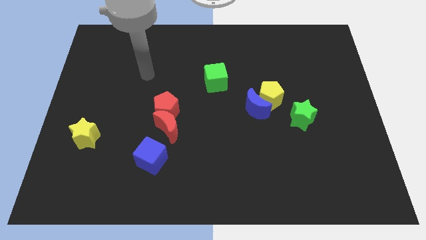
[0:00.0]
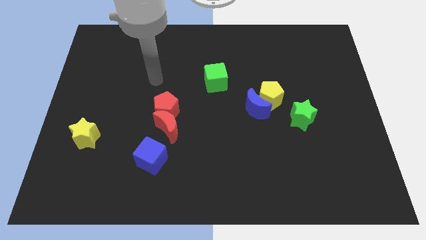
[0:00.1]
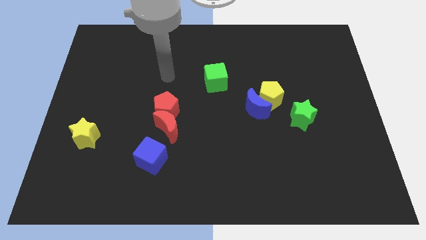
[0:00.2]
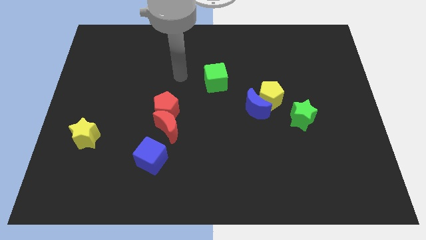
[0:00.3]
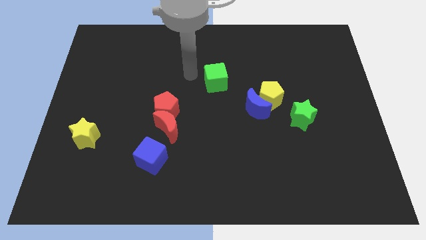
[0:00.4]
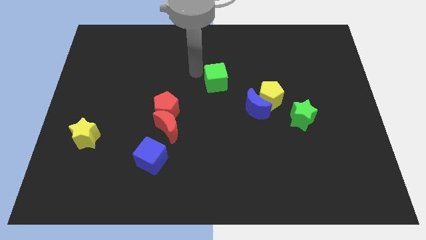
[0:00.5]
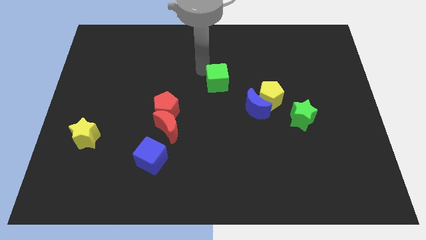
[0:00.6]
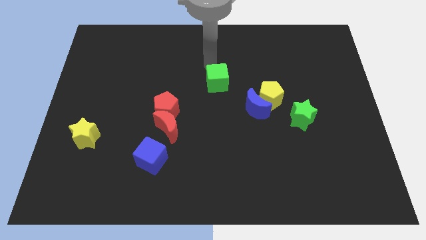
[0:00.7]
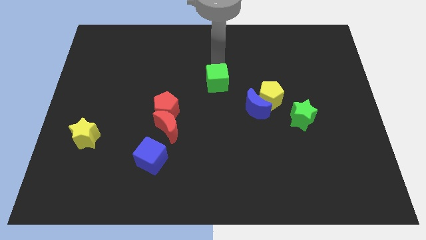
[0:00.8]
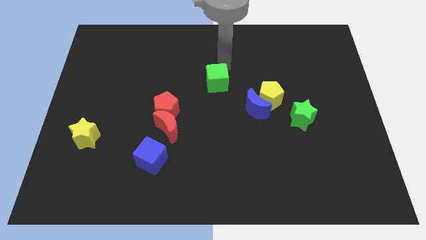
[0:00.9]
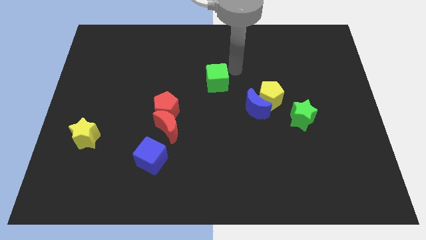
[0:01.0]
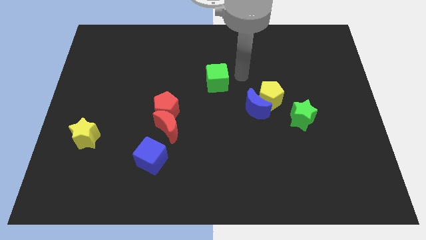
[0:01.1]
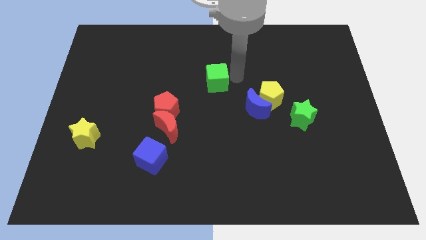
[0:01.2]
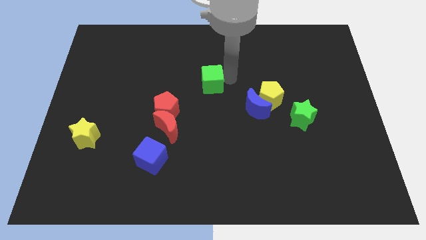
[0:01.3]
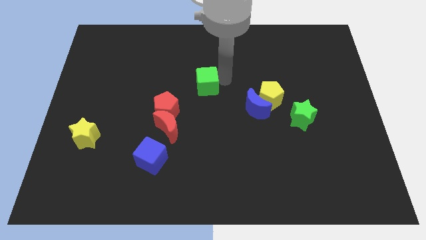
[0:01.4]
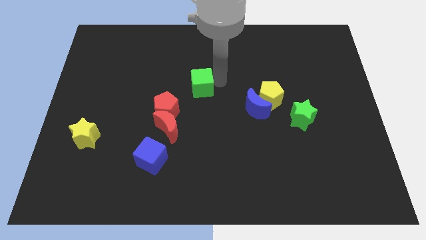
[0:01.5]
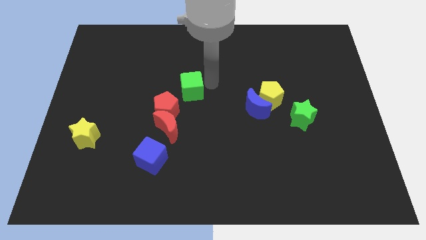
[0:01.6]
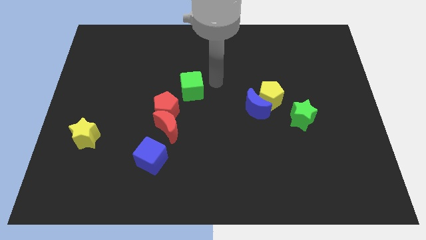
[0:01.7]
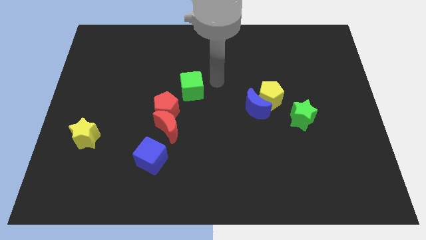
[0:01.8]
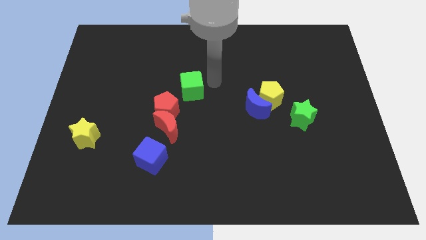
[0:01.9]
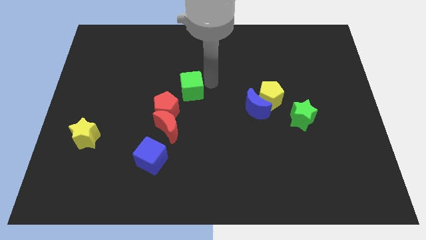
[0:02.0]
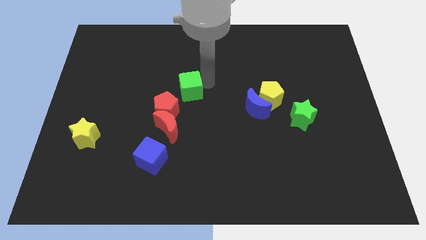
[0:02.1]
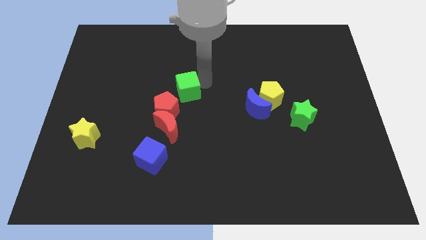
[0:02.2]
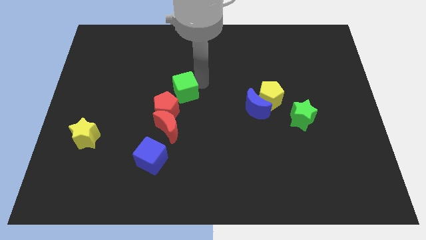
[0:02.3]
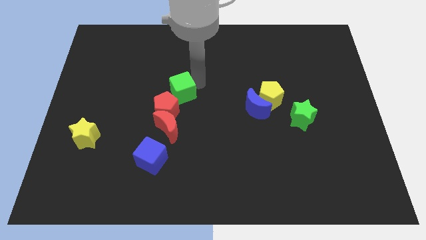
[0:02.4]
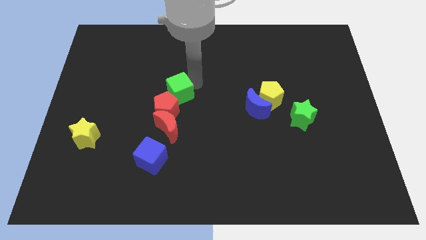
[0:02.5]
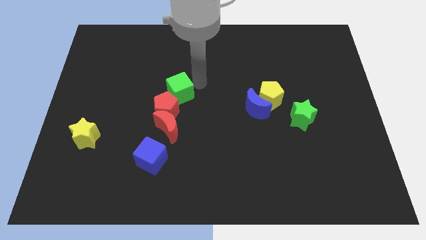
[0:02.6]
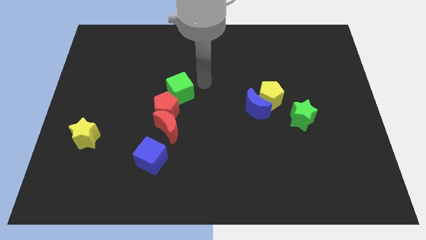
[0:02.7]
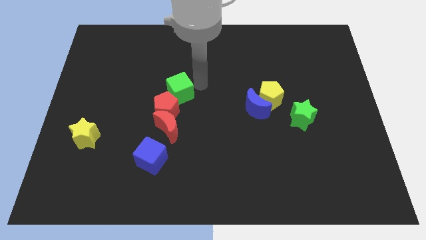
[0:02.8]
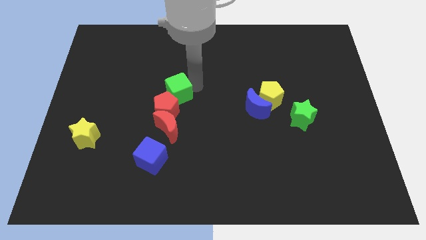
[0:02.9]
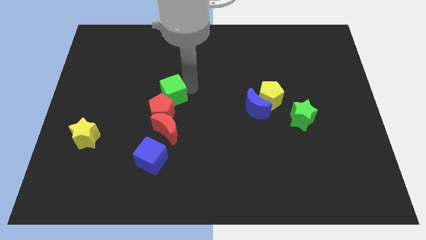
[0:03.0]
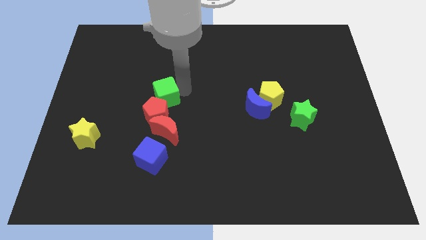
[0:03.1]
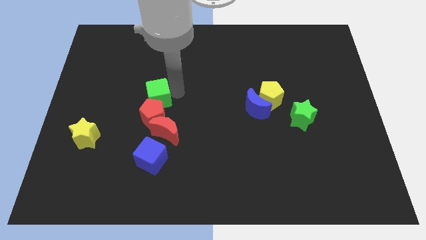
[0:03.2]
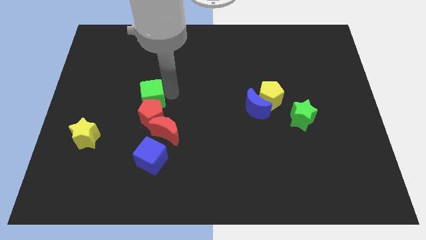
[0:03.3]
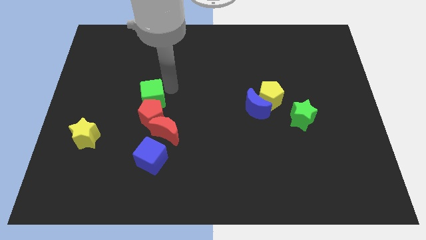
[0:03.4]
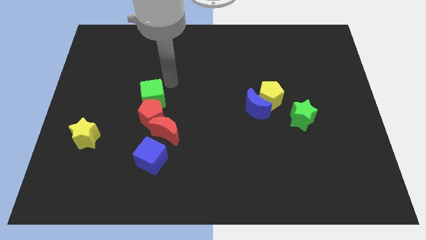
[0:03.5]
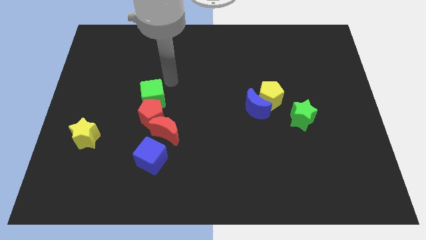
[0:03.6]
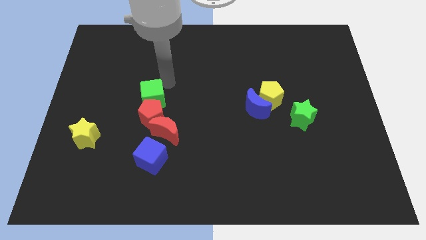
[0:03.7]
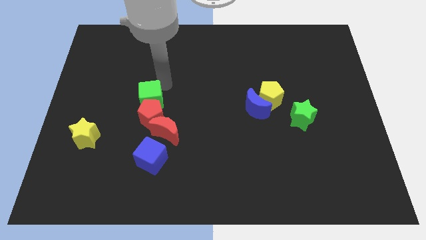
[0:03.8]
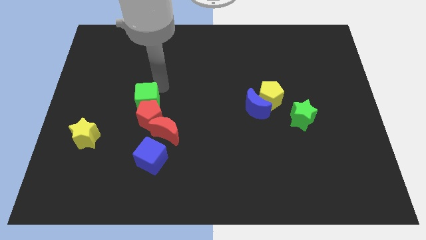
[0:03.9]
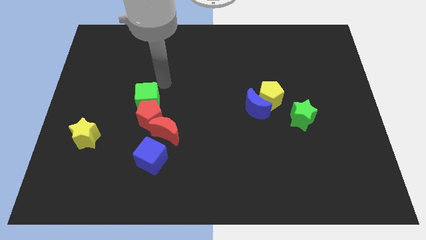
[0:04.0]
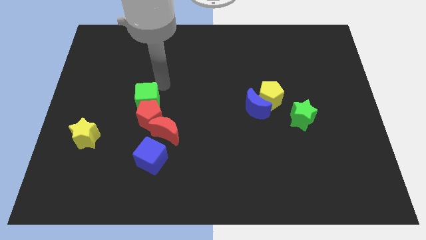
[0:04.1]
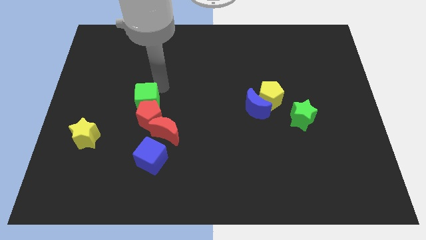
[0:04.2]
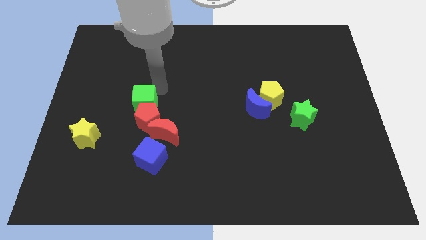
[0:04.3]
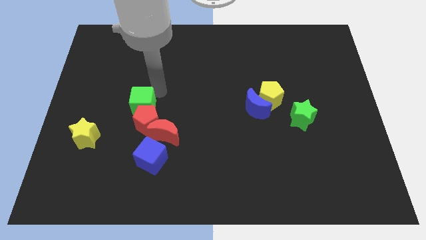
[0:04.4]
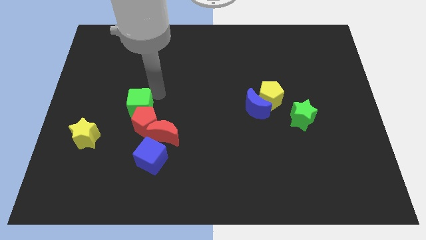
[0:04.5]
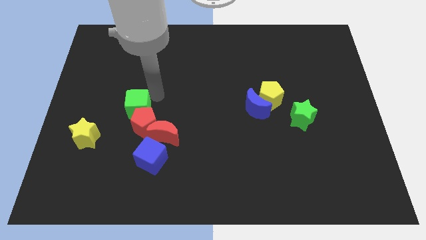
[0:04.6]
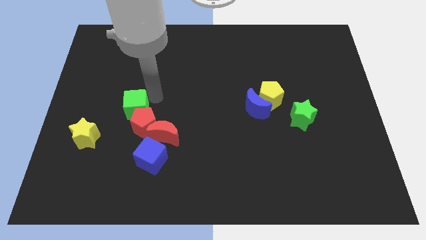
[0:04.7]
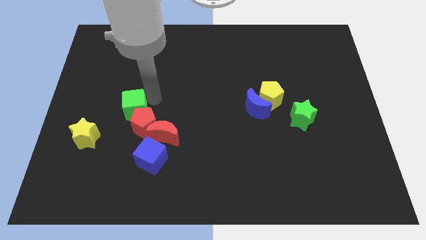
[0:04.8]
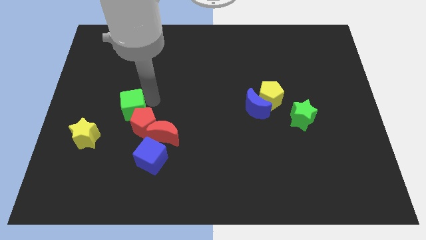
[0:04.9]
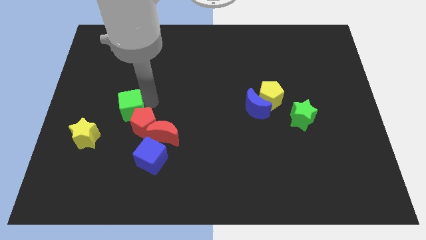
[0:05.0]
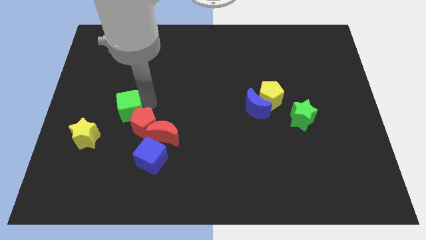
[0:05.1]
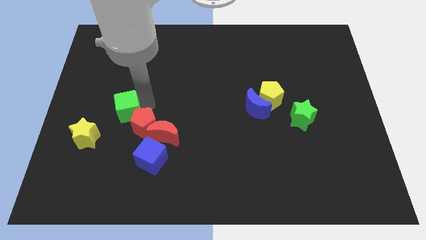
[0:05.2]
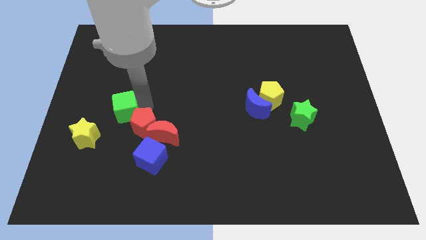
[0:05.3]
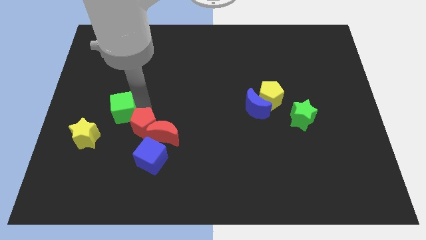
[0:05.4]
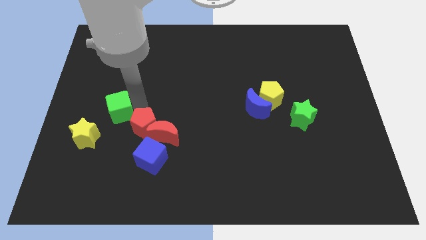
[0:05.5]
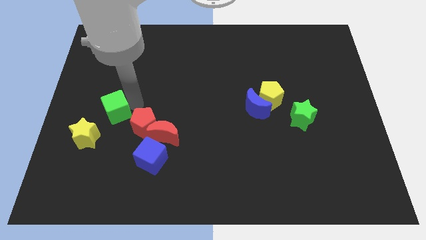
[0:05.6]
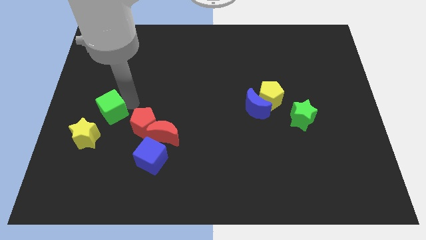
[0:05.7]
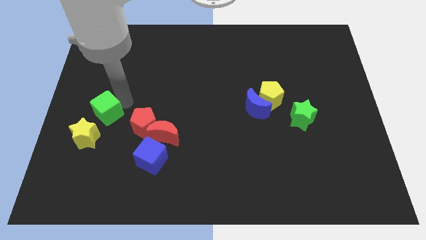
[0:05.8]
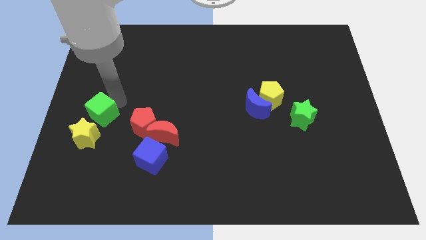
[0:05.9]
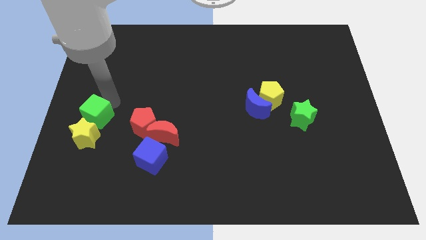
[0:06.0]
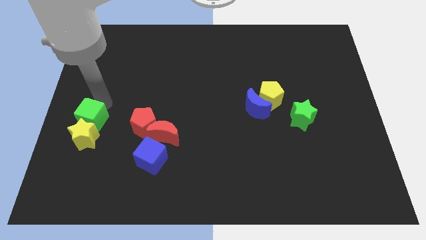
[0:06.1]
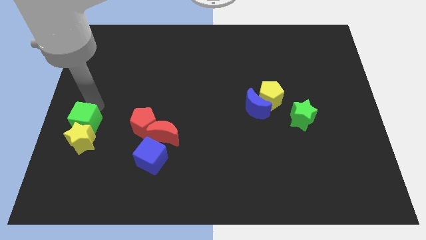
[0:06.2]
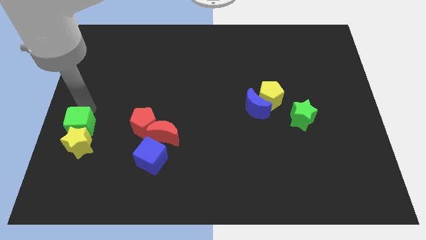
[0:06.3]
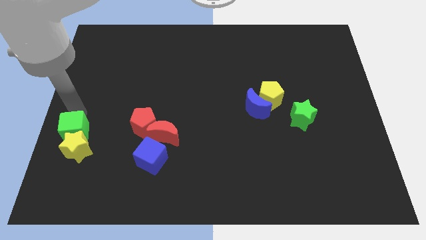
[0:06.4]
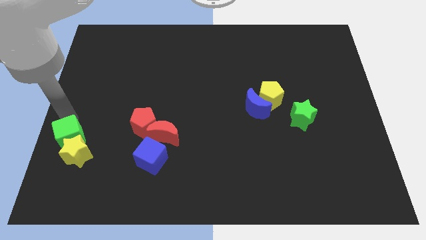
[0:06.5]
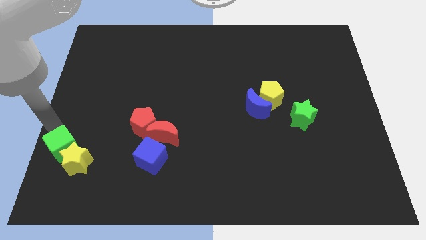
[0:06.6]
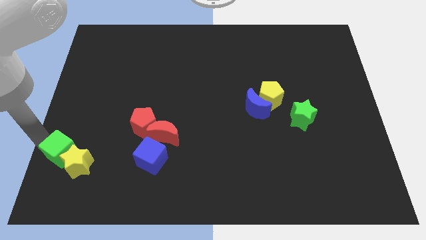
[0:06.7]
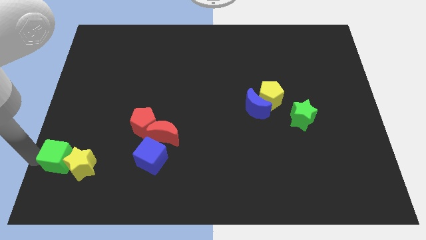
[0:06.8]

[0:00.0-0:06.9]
put the green cube to the bottom left corner
